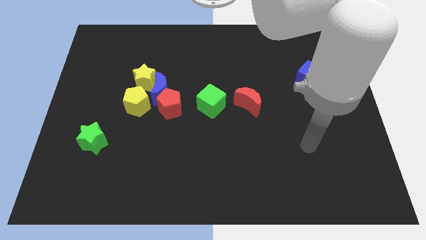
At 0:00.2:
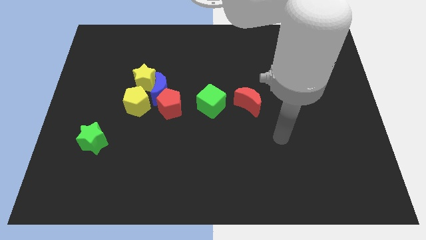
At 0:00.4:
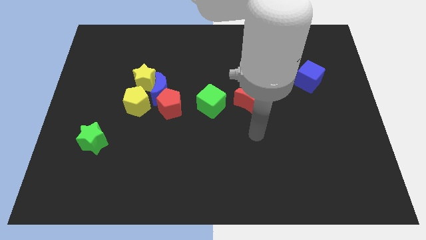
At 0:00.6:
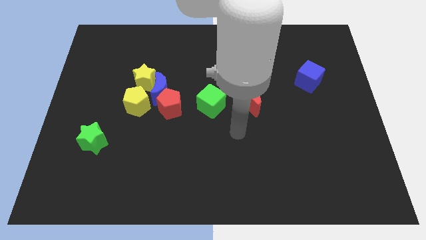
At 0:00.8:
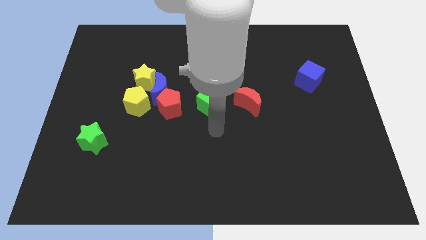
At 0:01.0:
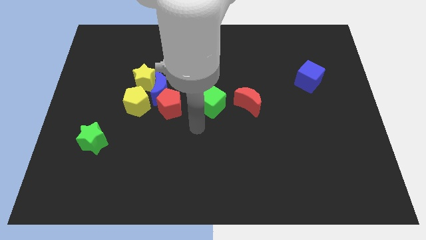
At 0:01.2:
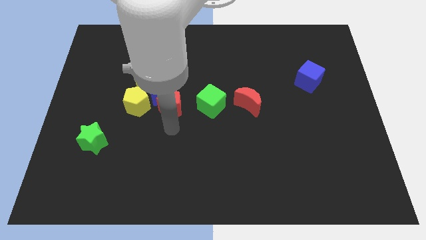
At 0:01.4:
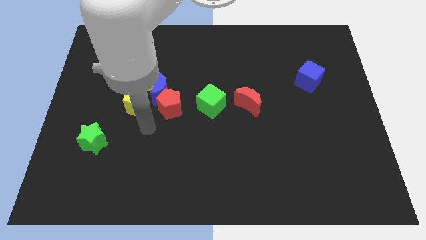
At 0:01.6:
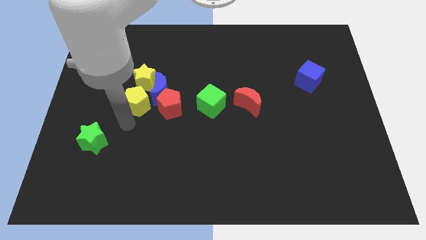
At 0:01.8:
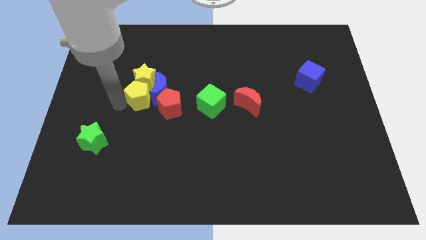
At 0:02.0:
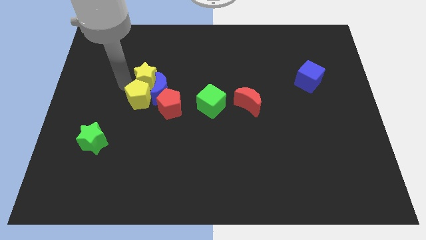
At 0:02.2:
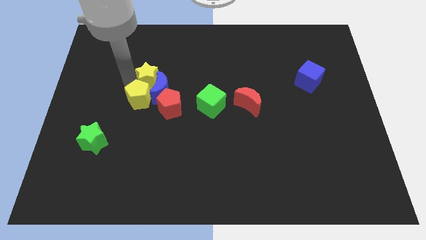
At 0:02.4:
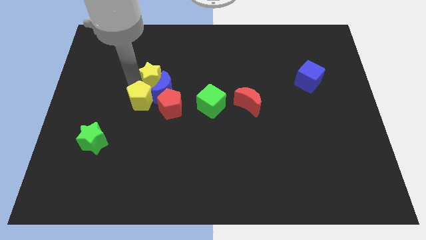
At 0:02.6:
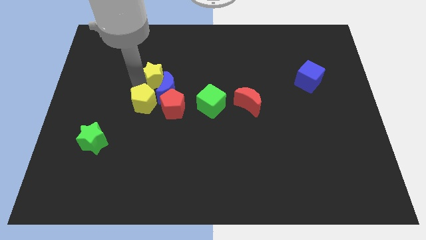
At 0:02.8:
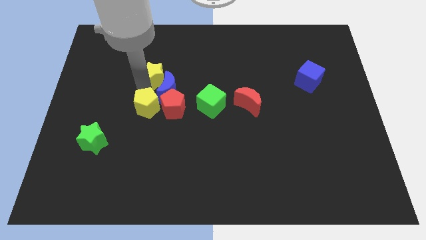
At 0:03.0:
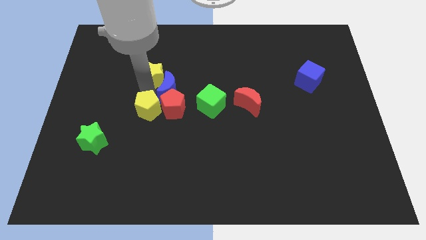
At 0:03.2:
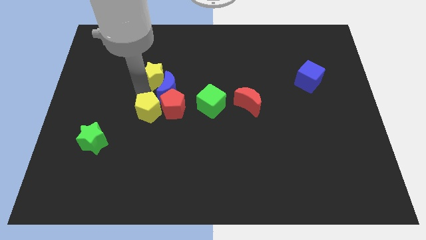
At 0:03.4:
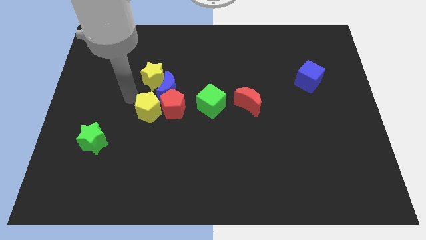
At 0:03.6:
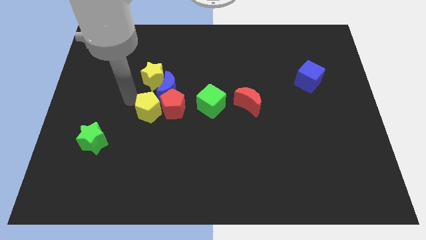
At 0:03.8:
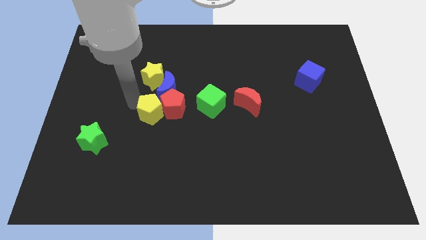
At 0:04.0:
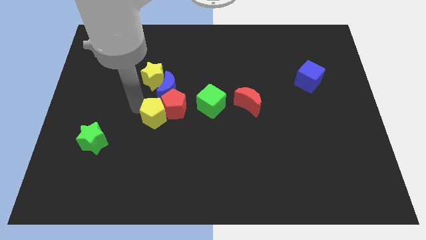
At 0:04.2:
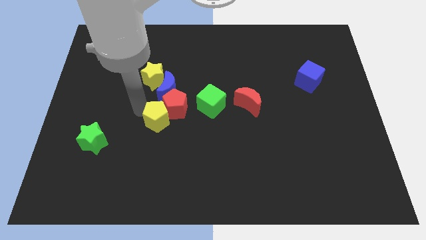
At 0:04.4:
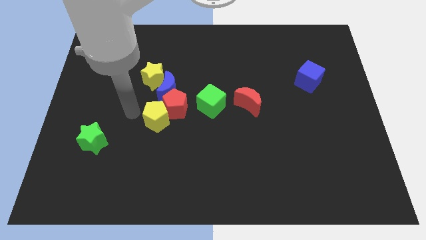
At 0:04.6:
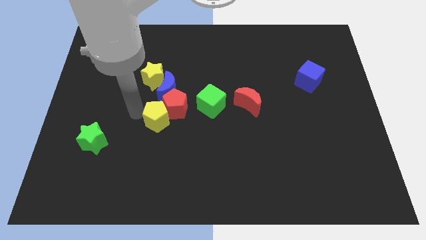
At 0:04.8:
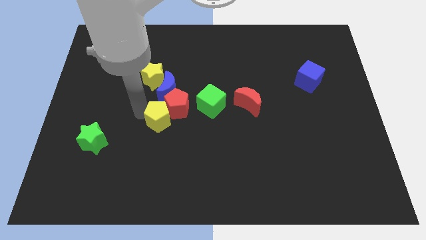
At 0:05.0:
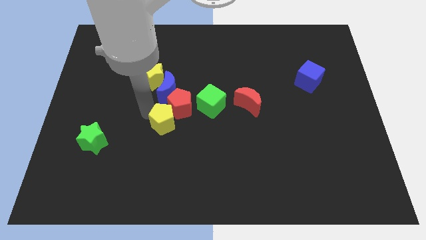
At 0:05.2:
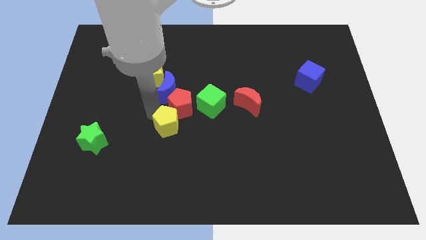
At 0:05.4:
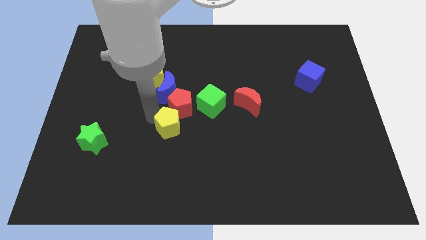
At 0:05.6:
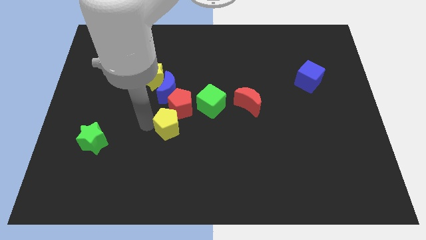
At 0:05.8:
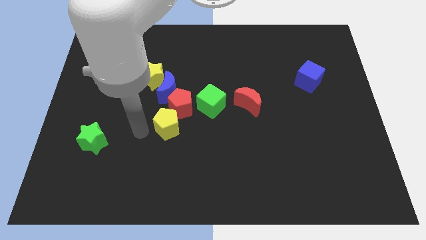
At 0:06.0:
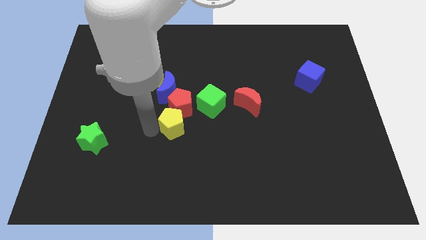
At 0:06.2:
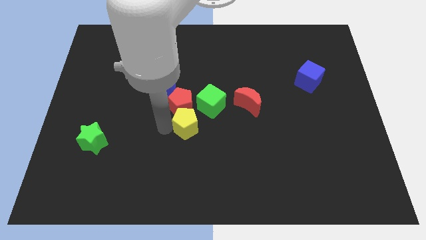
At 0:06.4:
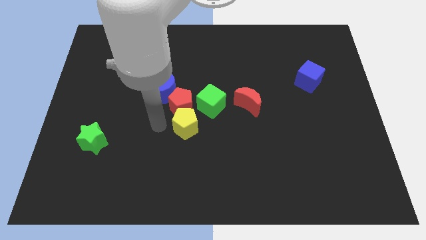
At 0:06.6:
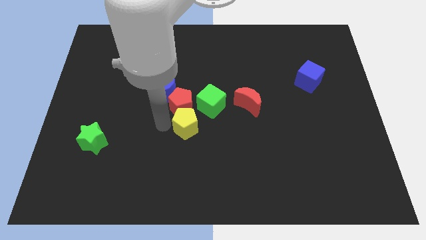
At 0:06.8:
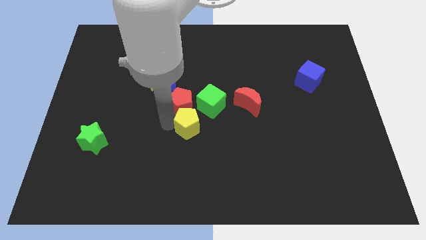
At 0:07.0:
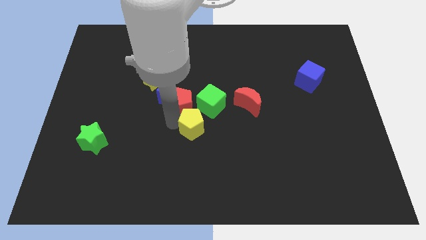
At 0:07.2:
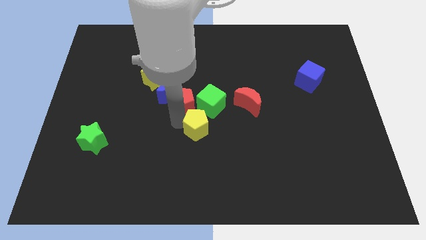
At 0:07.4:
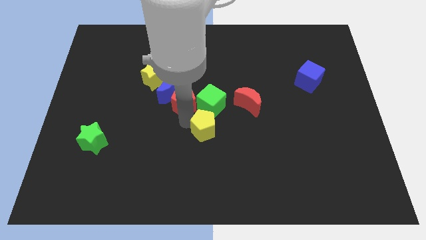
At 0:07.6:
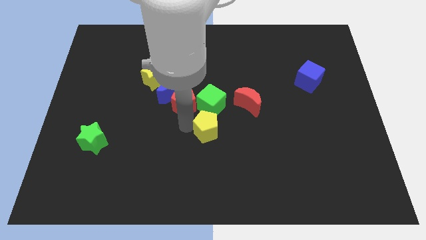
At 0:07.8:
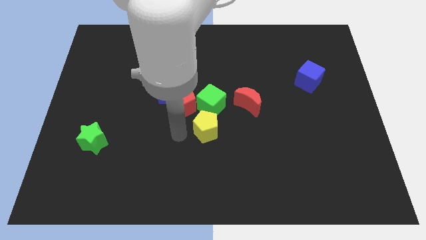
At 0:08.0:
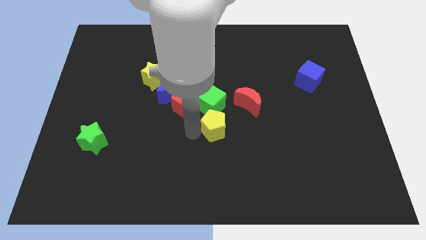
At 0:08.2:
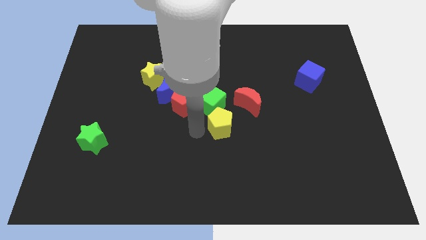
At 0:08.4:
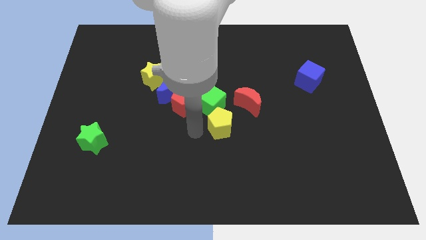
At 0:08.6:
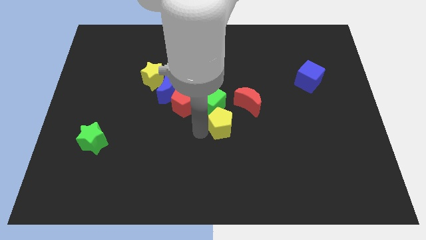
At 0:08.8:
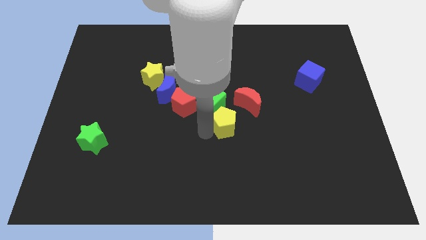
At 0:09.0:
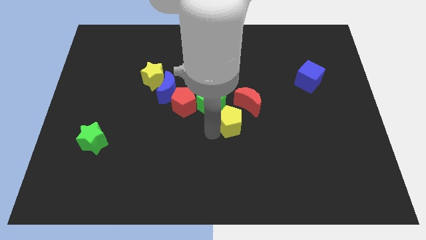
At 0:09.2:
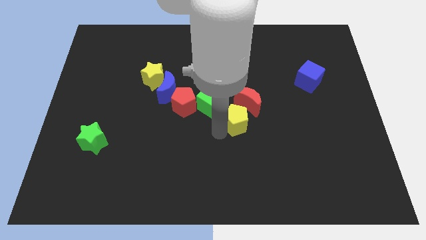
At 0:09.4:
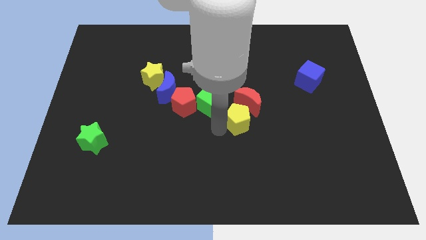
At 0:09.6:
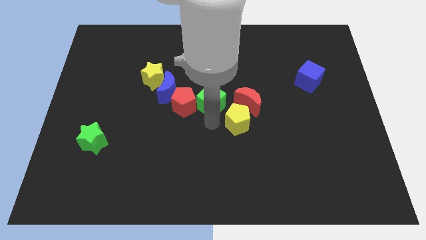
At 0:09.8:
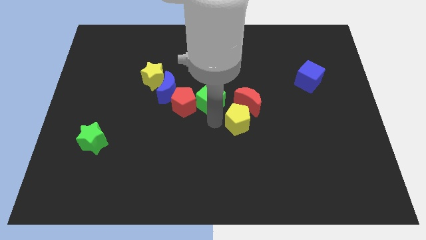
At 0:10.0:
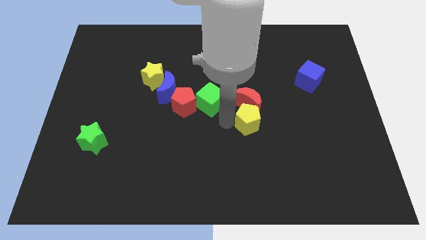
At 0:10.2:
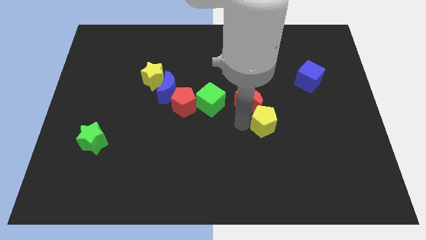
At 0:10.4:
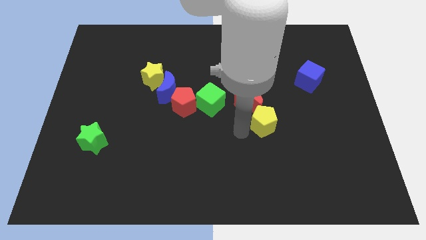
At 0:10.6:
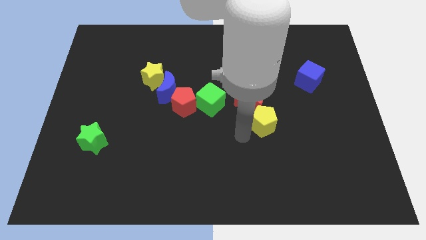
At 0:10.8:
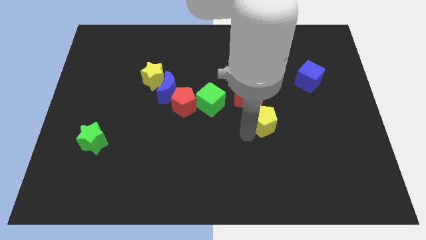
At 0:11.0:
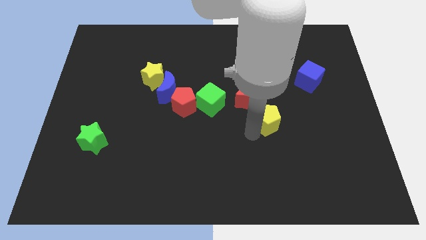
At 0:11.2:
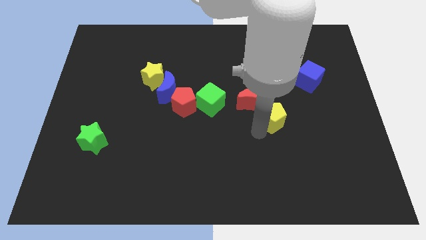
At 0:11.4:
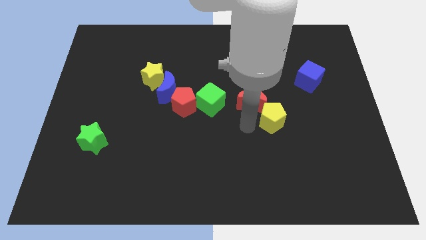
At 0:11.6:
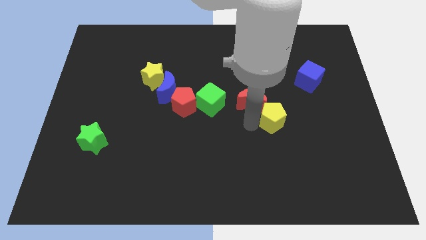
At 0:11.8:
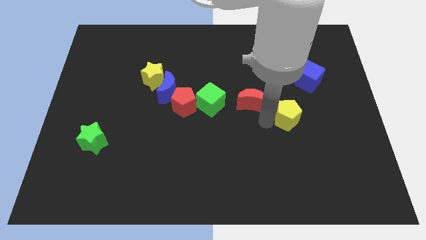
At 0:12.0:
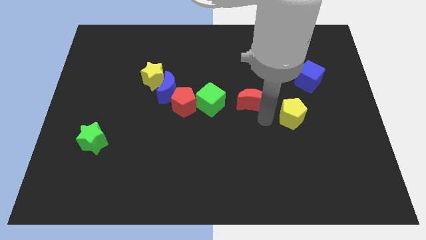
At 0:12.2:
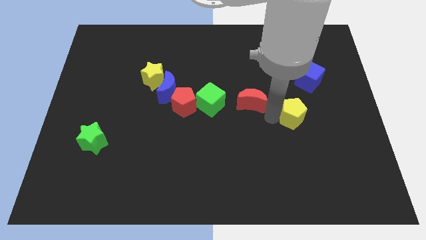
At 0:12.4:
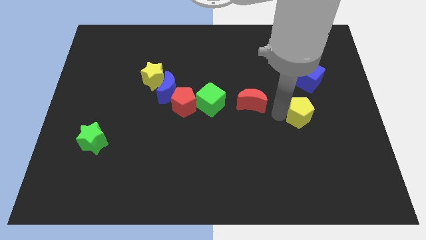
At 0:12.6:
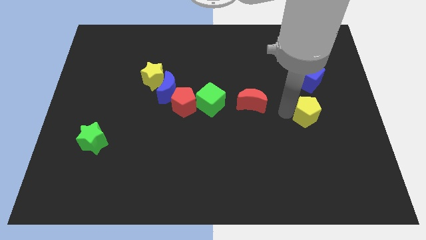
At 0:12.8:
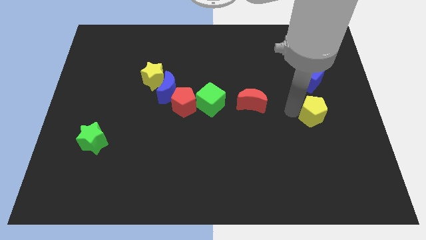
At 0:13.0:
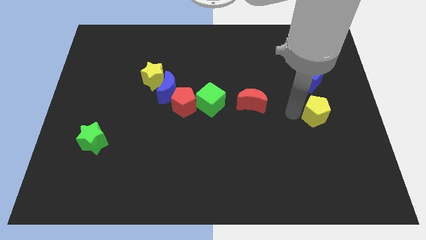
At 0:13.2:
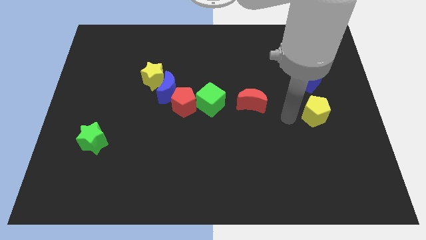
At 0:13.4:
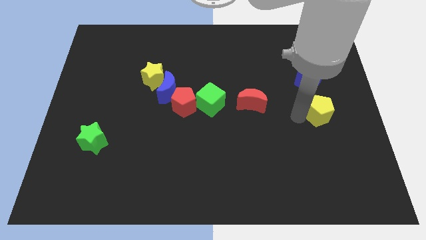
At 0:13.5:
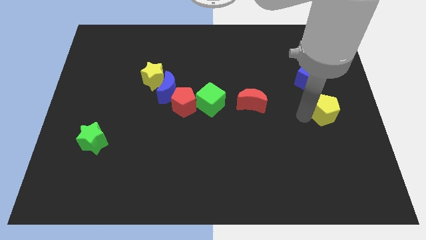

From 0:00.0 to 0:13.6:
slide the yellow pentagon to the center right
